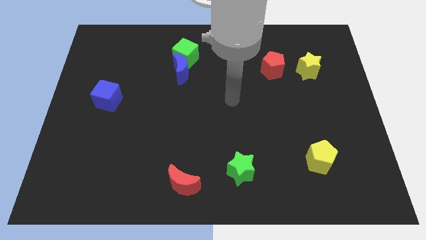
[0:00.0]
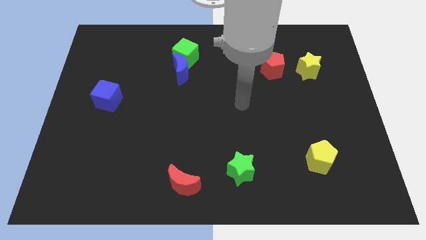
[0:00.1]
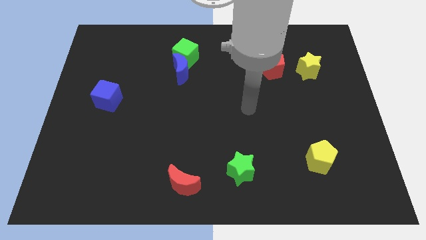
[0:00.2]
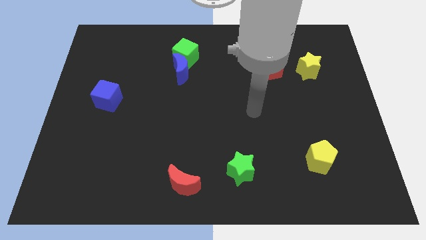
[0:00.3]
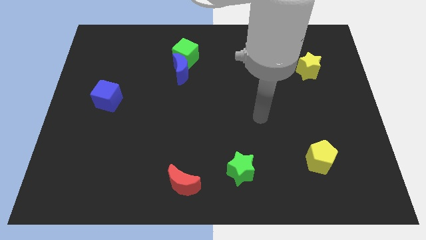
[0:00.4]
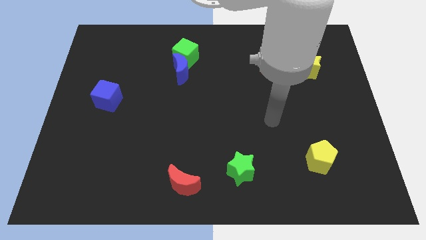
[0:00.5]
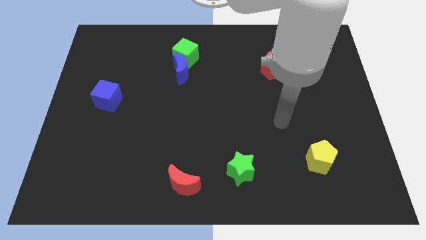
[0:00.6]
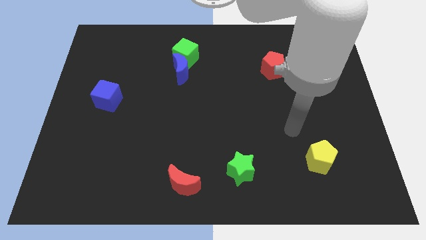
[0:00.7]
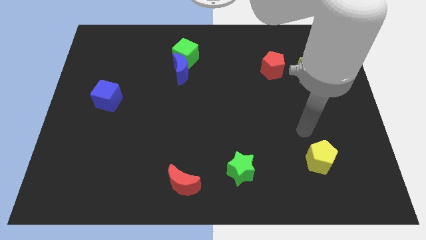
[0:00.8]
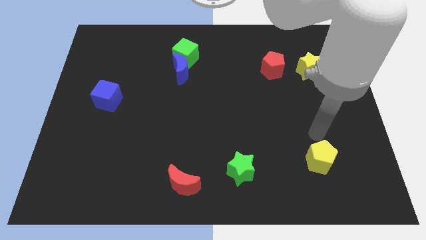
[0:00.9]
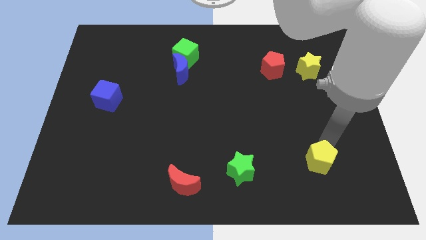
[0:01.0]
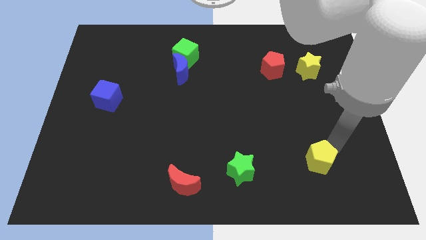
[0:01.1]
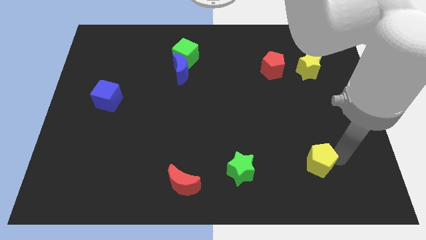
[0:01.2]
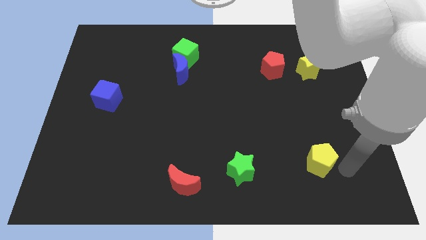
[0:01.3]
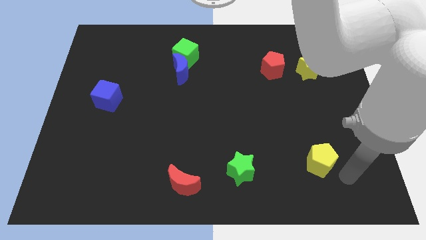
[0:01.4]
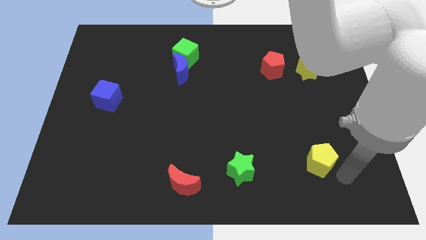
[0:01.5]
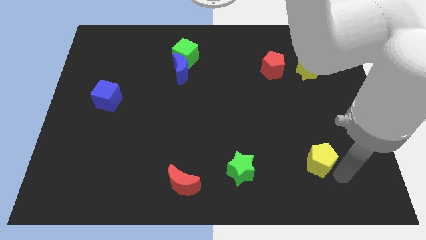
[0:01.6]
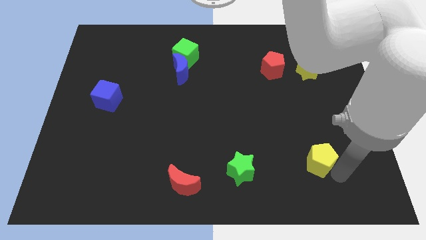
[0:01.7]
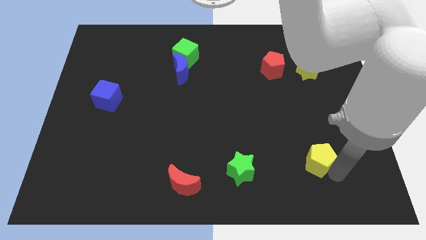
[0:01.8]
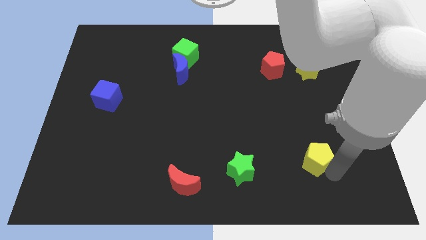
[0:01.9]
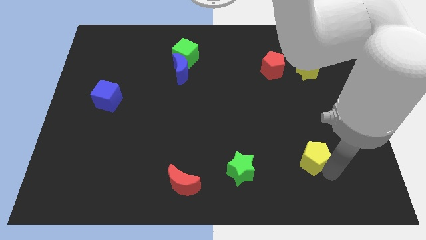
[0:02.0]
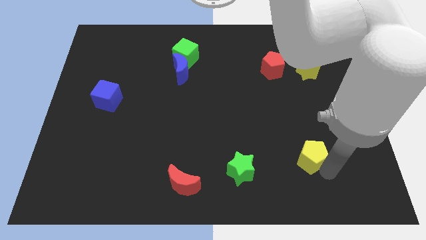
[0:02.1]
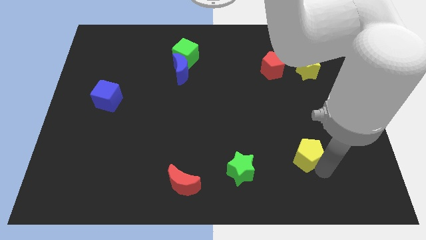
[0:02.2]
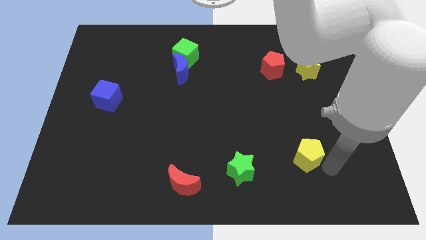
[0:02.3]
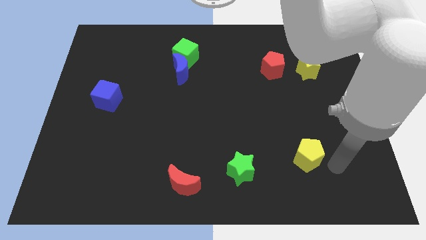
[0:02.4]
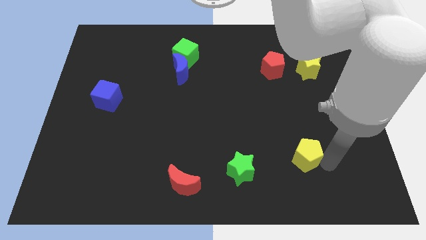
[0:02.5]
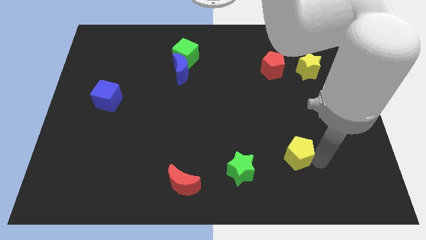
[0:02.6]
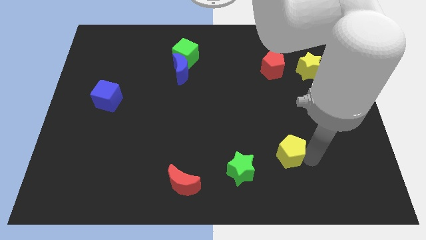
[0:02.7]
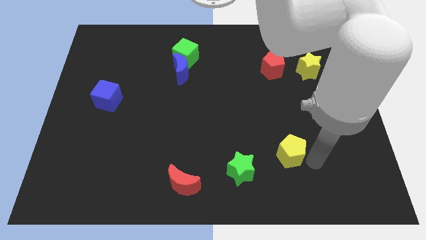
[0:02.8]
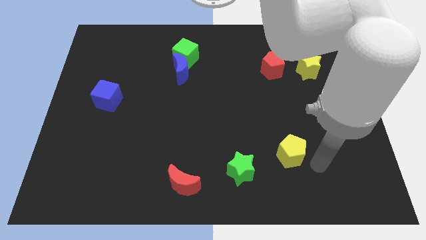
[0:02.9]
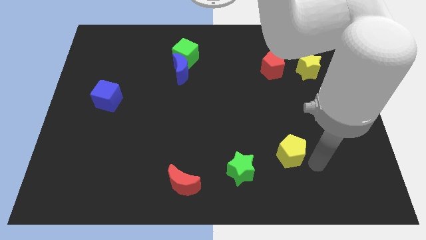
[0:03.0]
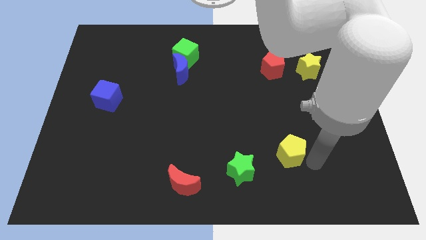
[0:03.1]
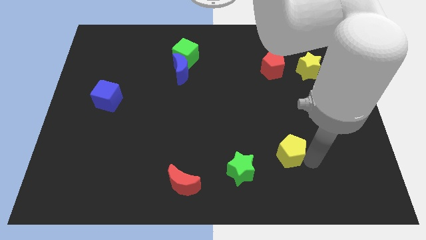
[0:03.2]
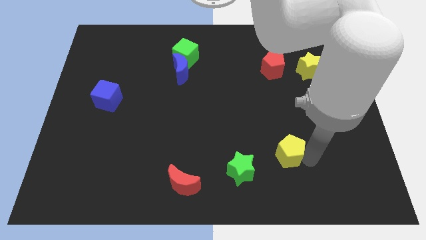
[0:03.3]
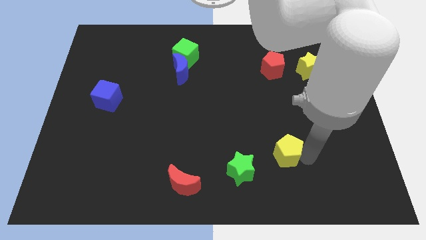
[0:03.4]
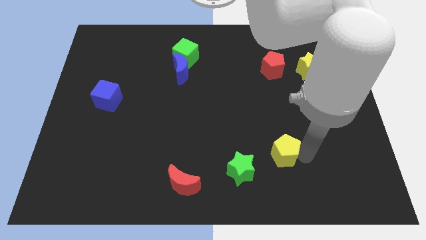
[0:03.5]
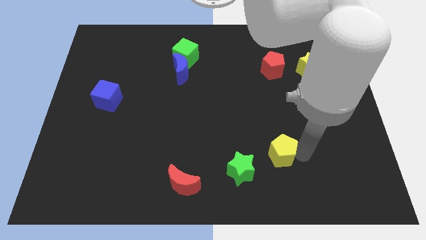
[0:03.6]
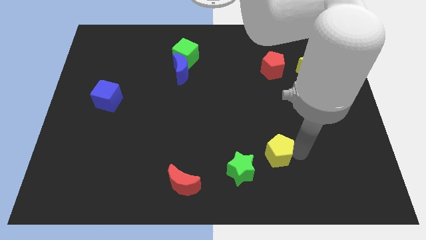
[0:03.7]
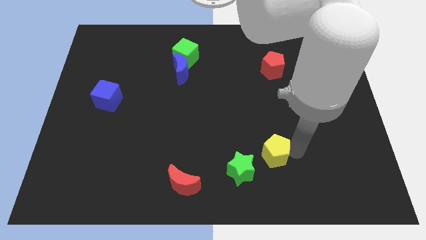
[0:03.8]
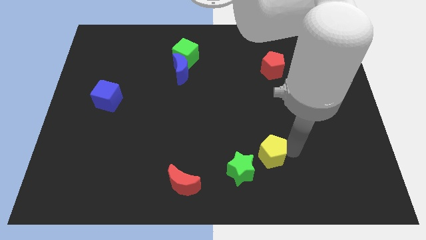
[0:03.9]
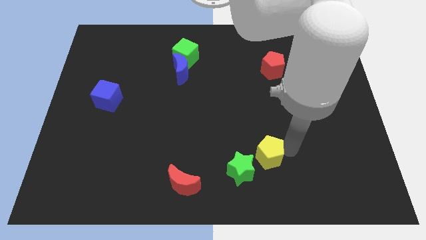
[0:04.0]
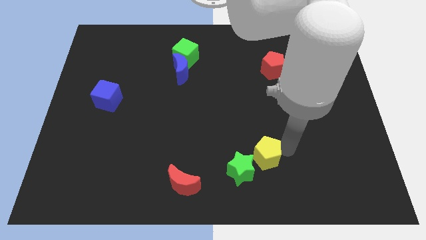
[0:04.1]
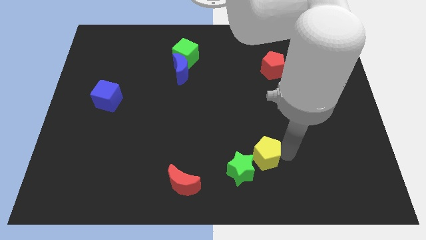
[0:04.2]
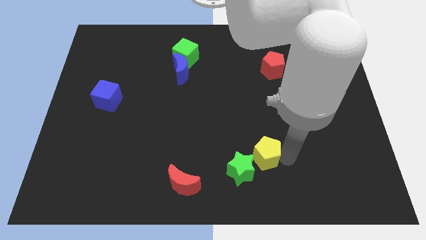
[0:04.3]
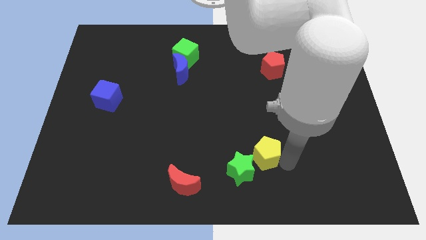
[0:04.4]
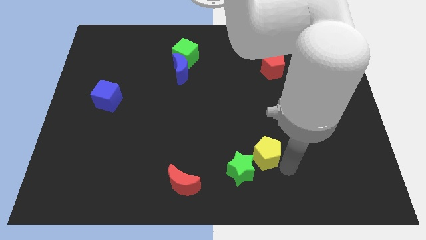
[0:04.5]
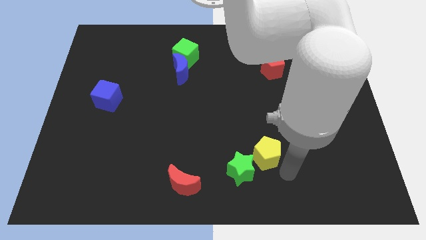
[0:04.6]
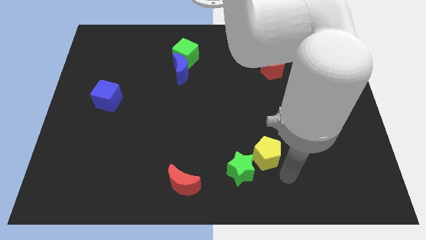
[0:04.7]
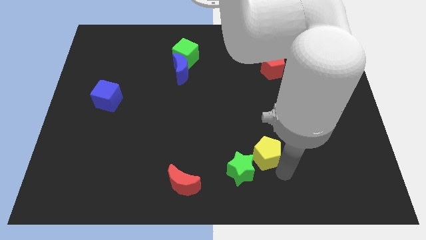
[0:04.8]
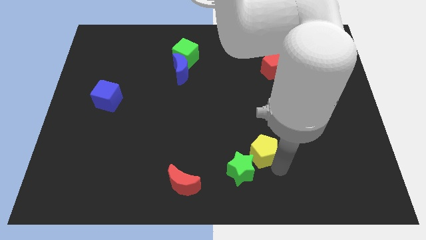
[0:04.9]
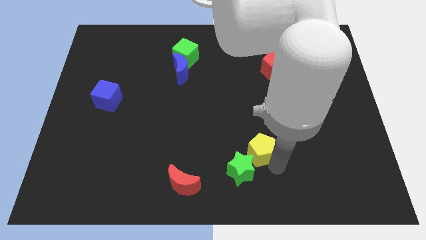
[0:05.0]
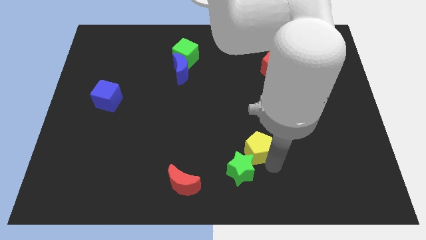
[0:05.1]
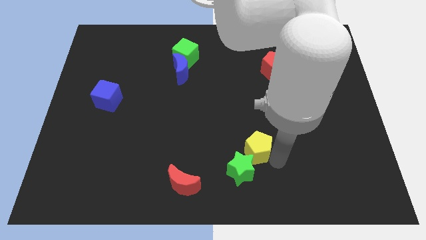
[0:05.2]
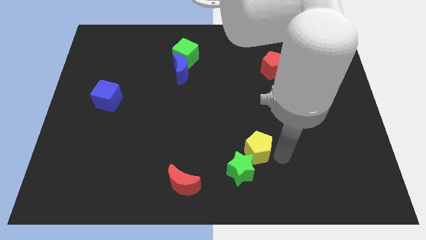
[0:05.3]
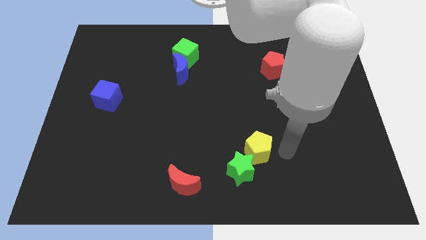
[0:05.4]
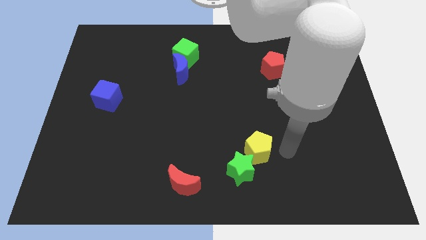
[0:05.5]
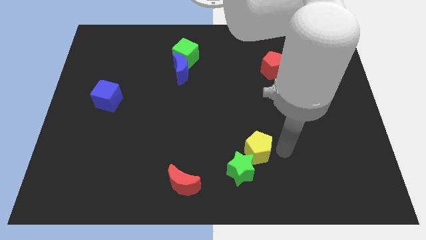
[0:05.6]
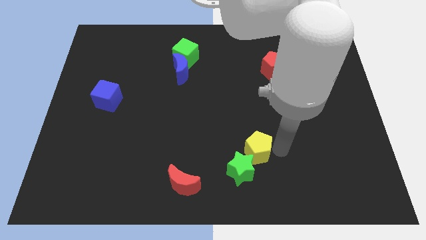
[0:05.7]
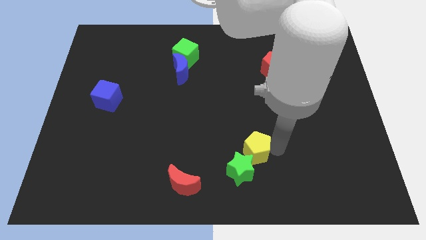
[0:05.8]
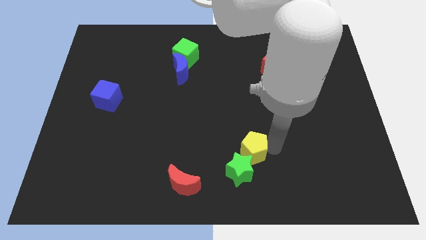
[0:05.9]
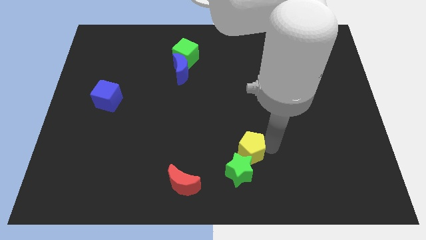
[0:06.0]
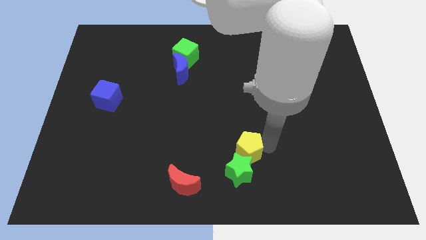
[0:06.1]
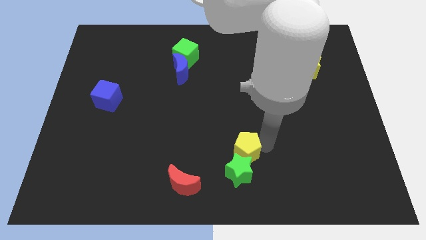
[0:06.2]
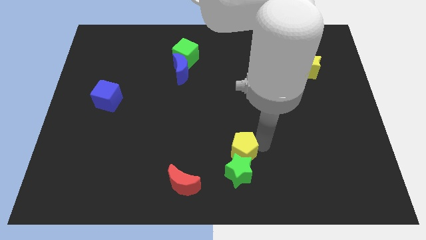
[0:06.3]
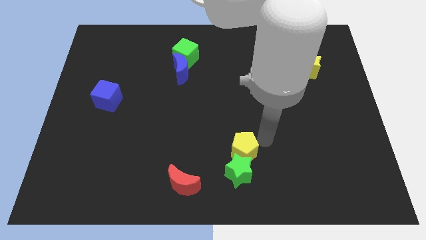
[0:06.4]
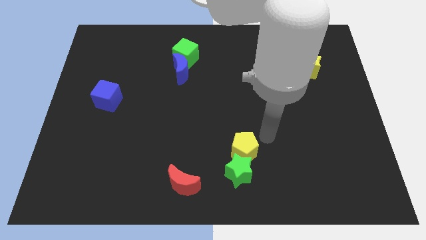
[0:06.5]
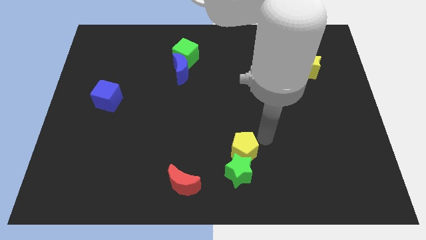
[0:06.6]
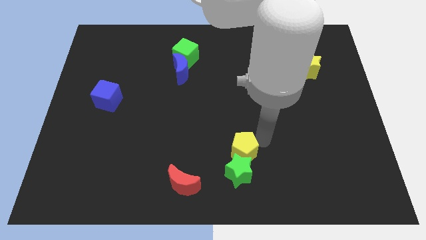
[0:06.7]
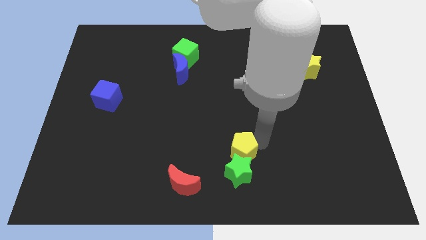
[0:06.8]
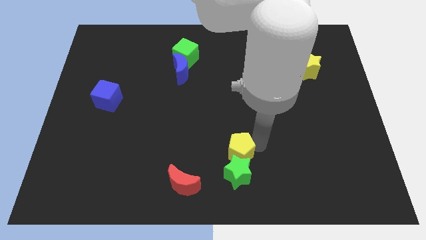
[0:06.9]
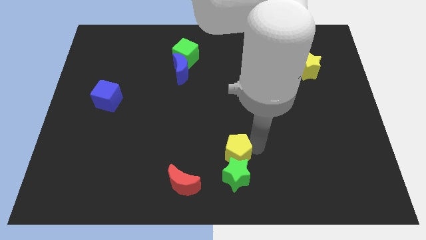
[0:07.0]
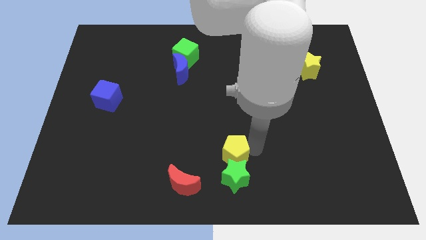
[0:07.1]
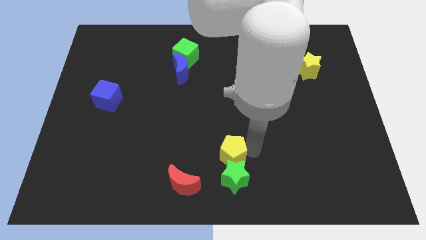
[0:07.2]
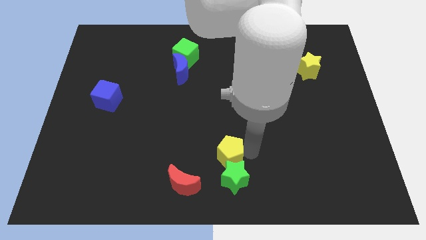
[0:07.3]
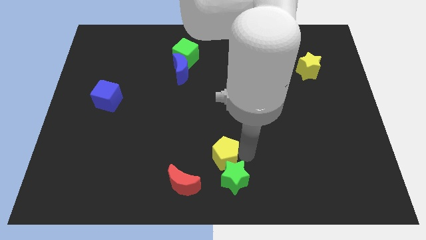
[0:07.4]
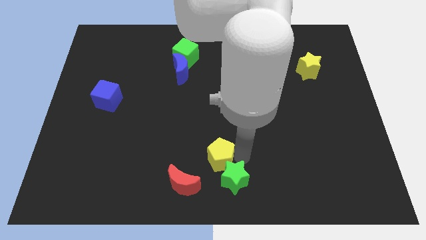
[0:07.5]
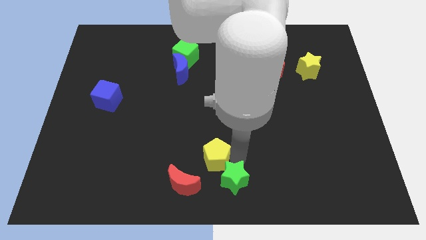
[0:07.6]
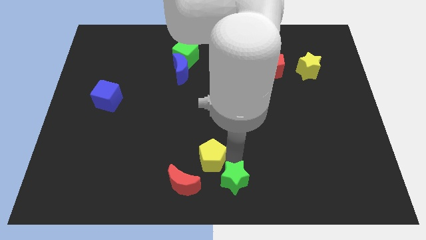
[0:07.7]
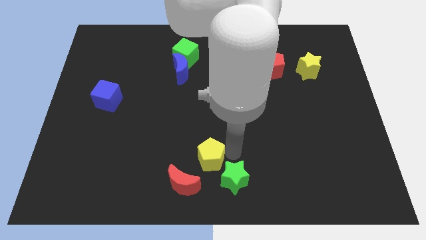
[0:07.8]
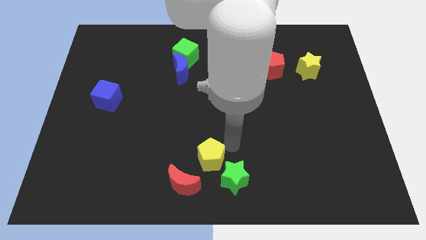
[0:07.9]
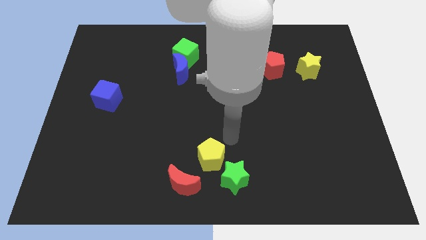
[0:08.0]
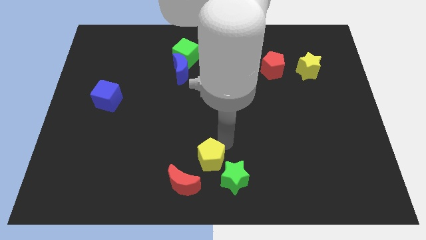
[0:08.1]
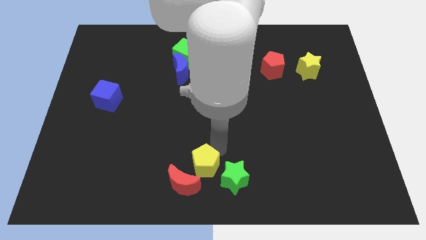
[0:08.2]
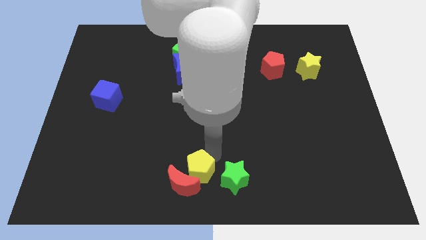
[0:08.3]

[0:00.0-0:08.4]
move the yellow pentagon towards the red moon
